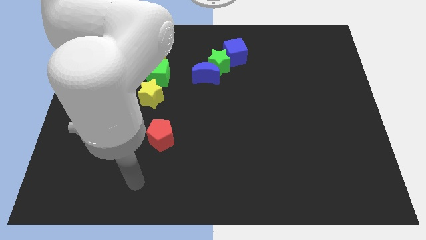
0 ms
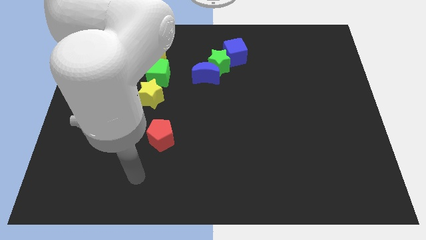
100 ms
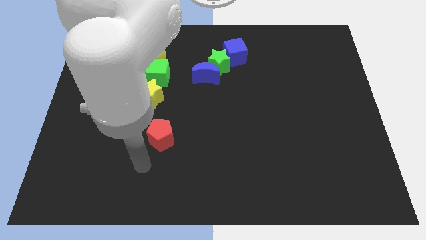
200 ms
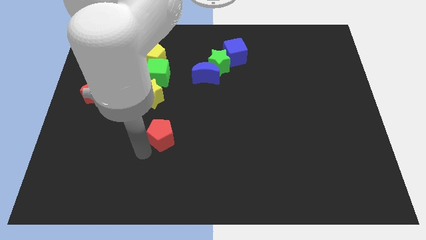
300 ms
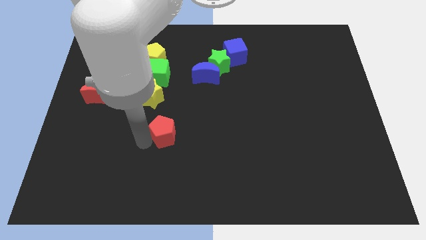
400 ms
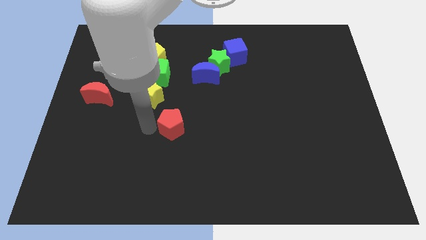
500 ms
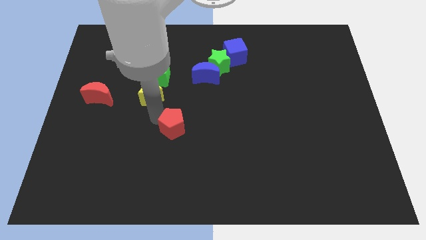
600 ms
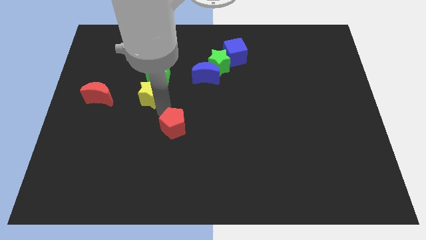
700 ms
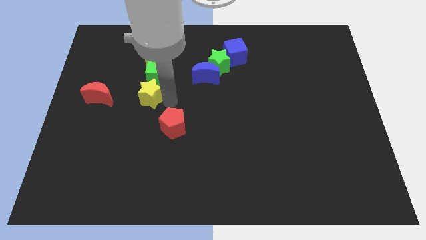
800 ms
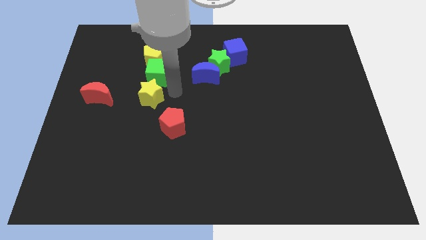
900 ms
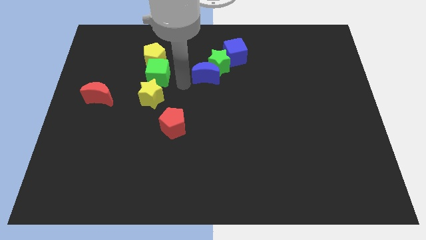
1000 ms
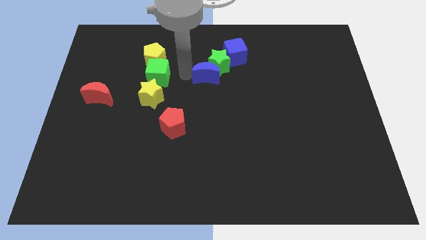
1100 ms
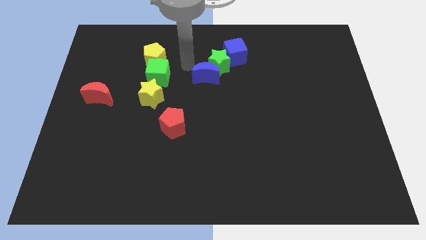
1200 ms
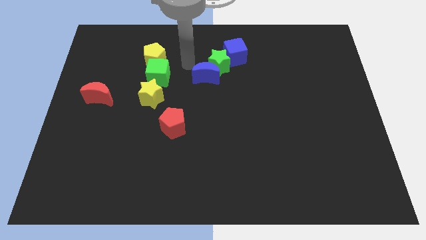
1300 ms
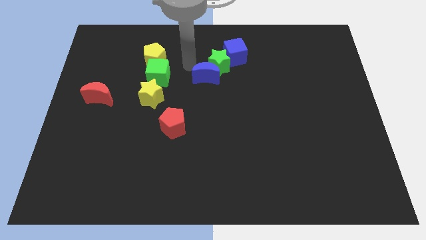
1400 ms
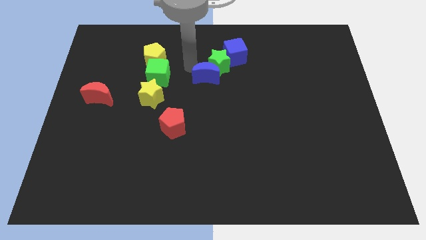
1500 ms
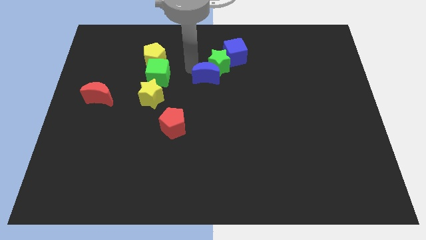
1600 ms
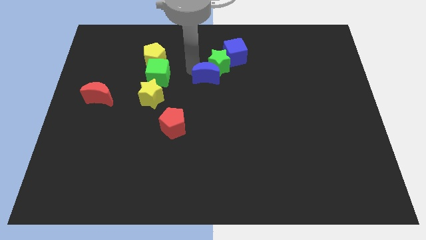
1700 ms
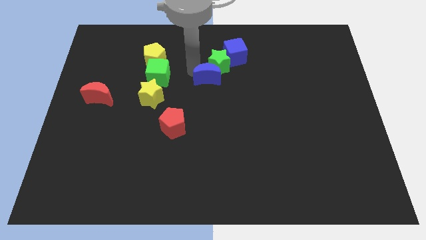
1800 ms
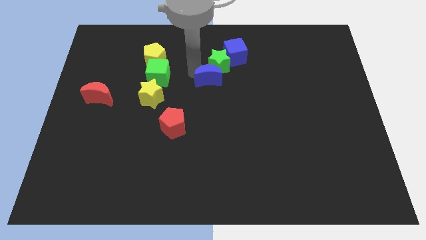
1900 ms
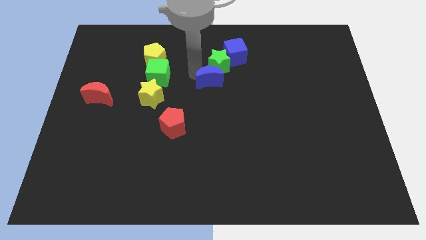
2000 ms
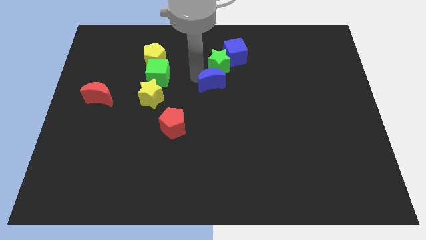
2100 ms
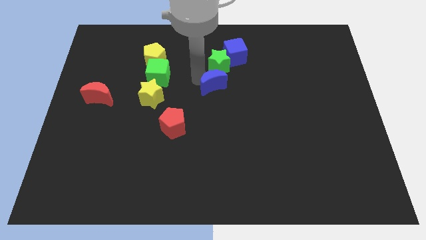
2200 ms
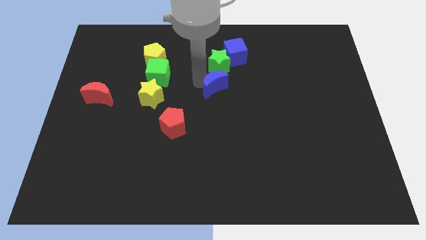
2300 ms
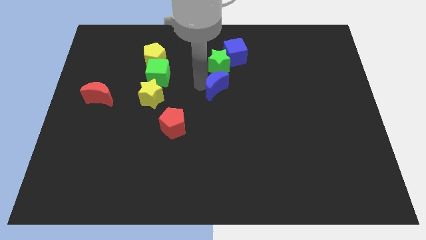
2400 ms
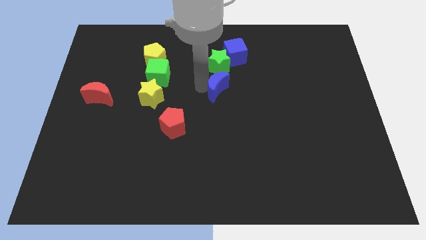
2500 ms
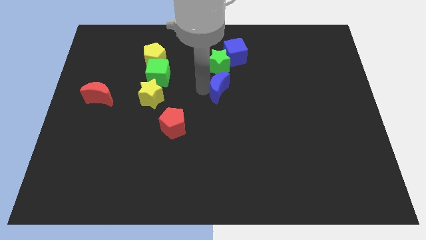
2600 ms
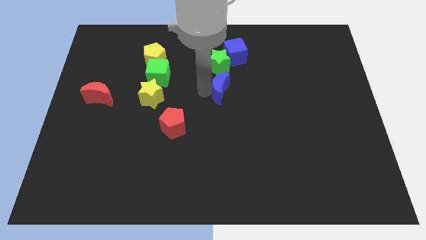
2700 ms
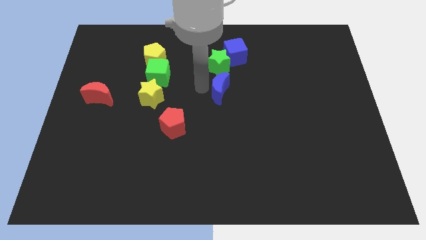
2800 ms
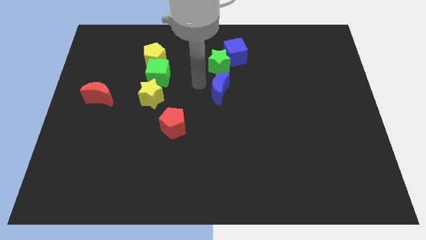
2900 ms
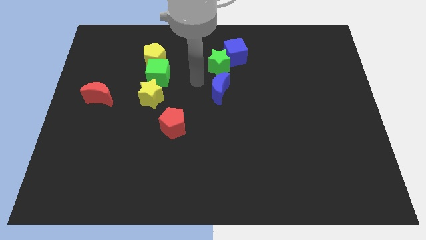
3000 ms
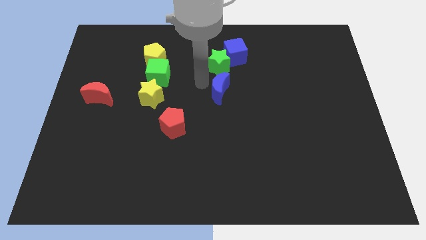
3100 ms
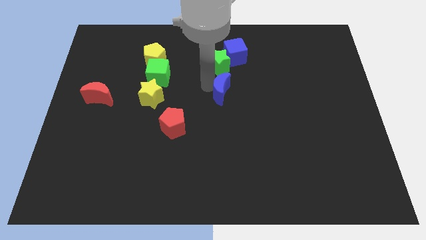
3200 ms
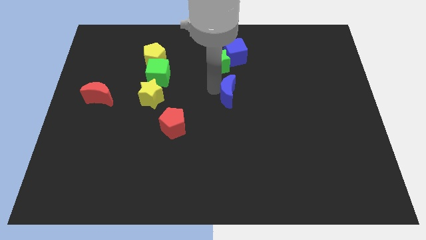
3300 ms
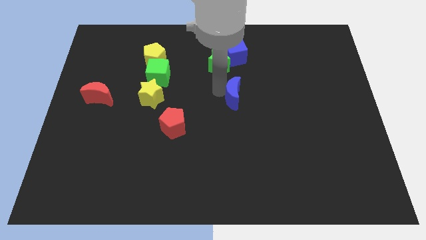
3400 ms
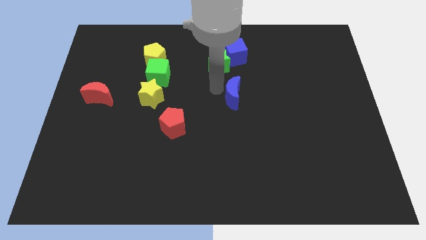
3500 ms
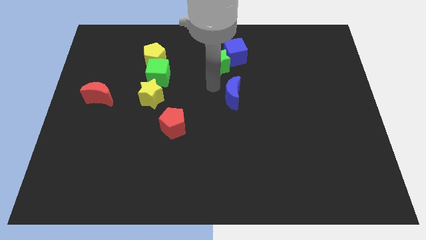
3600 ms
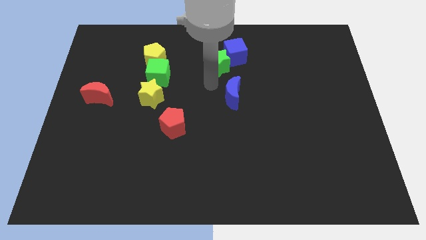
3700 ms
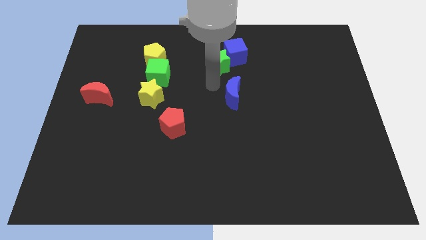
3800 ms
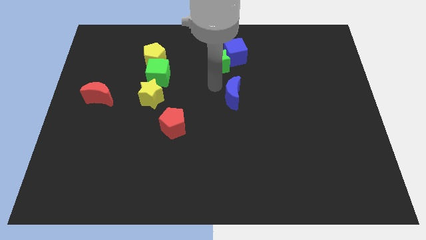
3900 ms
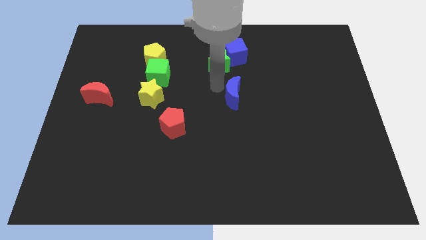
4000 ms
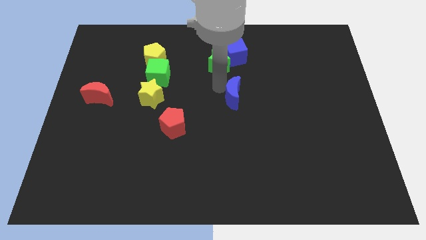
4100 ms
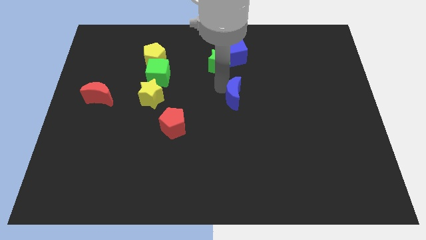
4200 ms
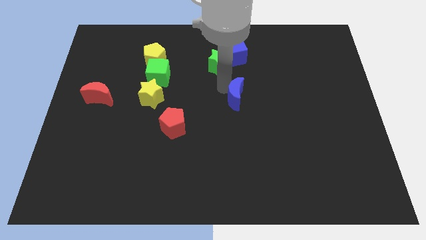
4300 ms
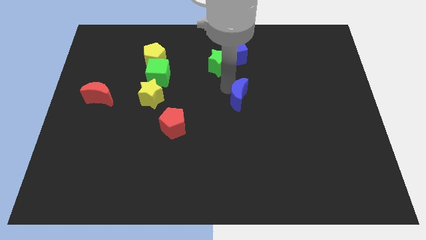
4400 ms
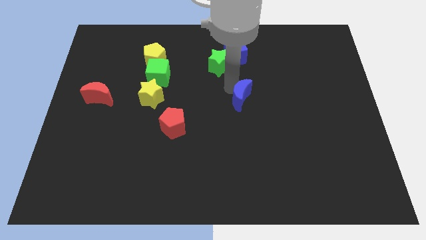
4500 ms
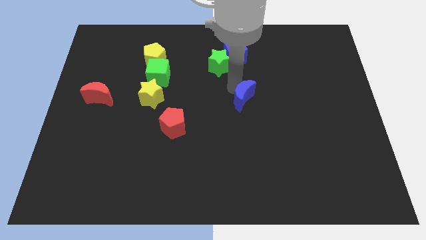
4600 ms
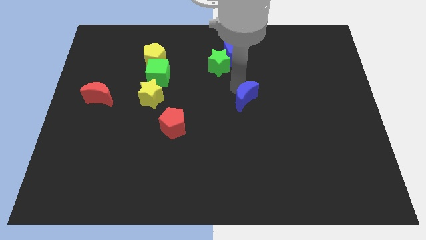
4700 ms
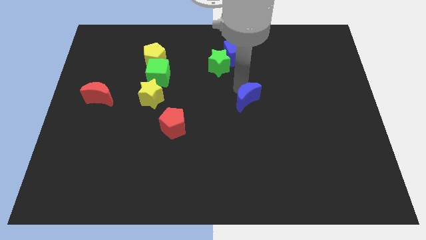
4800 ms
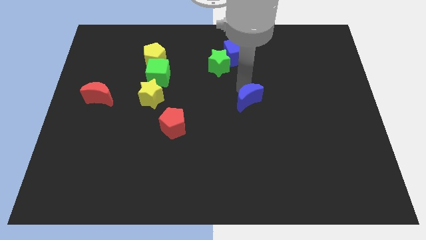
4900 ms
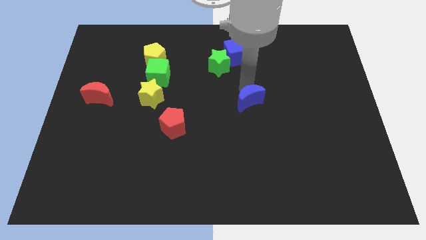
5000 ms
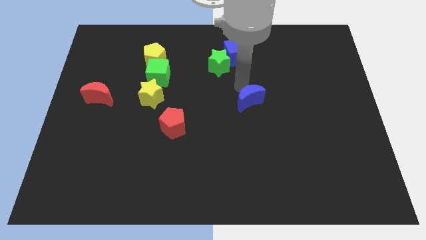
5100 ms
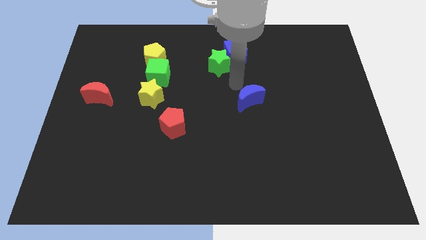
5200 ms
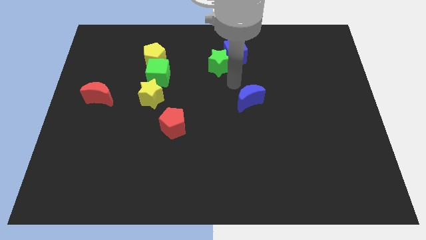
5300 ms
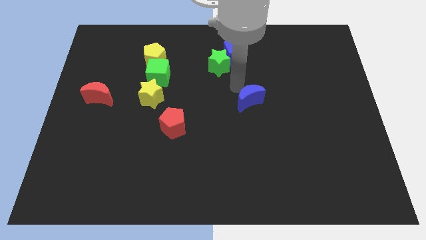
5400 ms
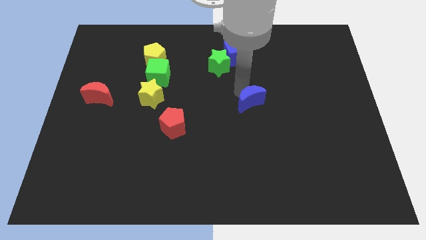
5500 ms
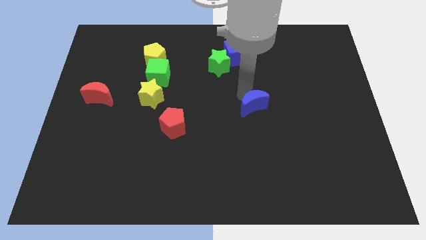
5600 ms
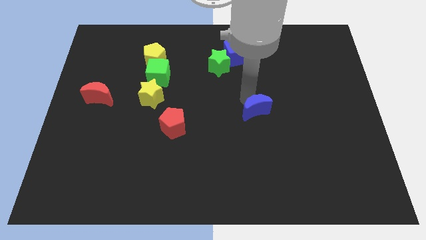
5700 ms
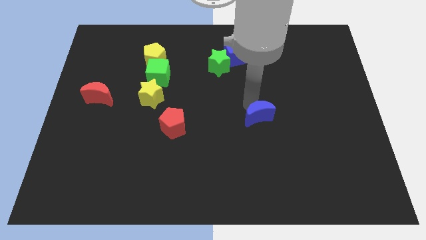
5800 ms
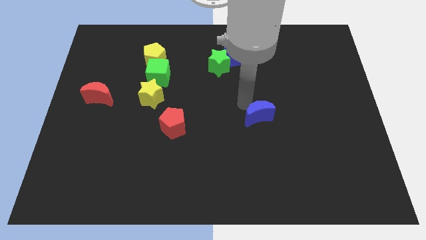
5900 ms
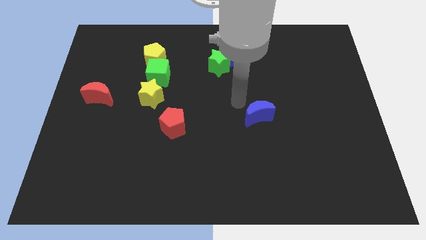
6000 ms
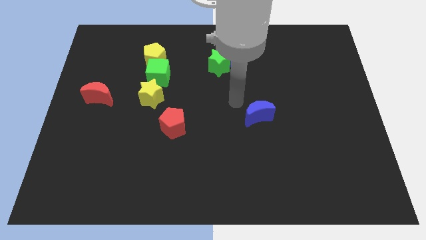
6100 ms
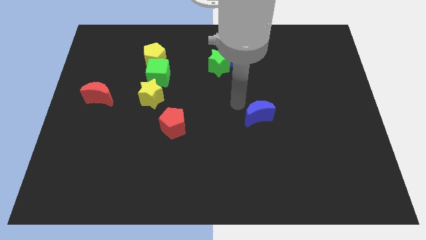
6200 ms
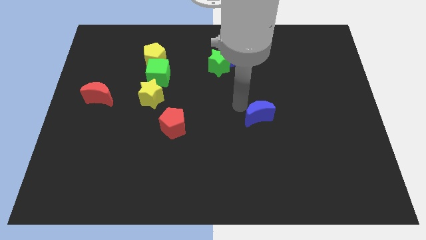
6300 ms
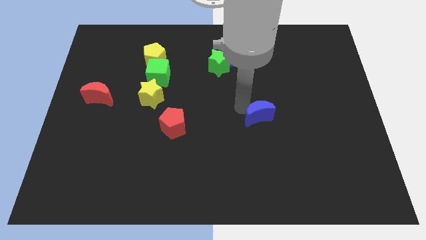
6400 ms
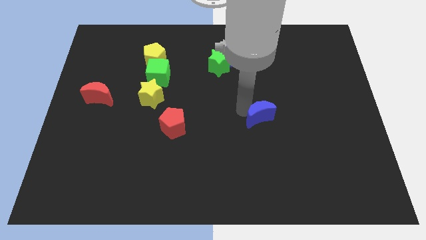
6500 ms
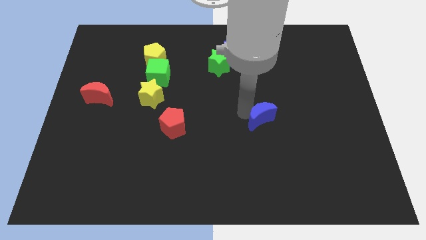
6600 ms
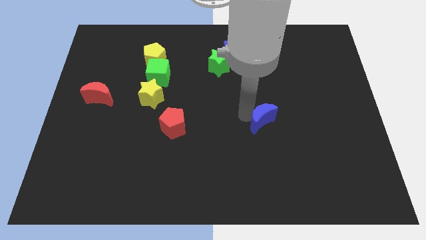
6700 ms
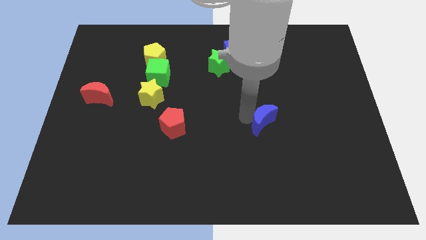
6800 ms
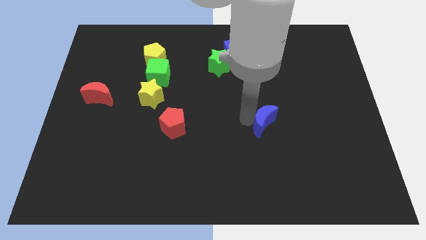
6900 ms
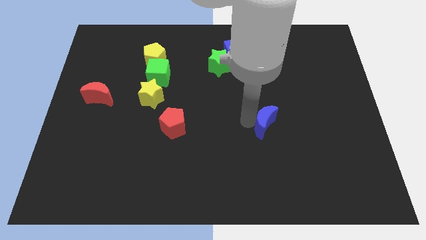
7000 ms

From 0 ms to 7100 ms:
slide the blue moon down and right
